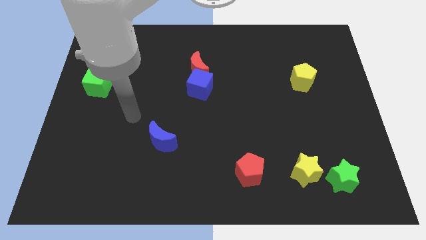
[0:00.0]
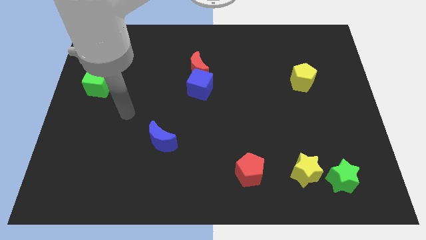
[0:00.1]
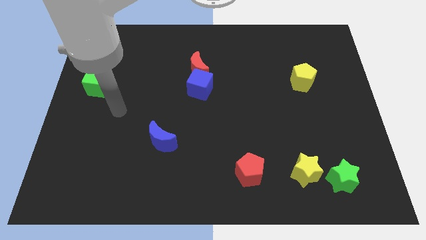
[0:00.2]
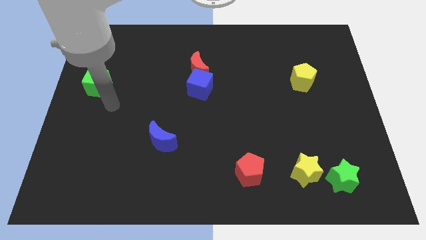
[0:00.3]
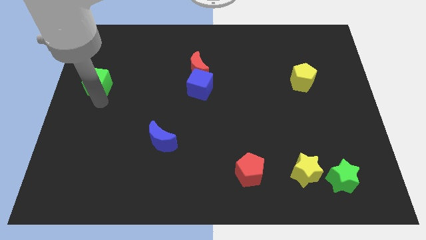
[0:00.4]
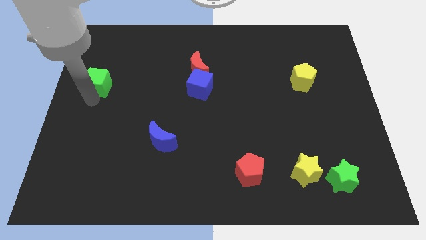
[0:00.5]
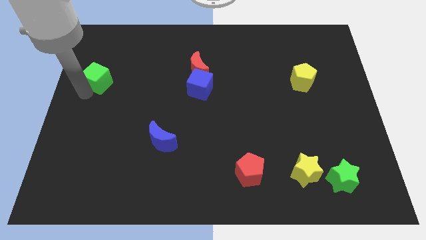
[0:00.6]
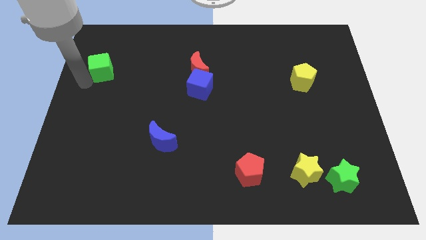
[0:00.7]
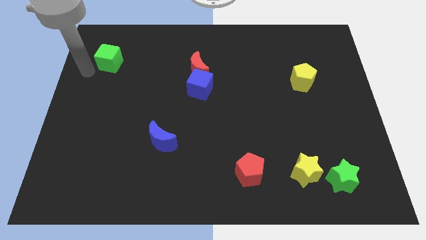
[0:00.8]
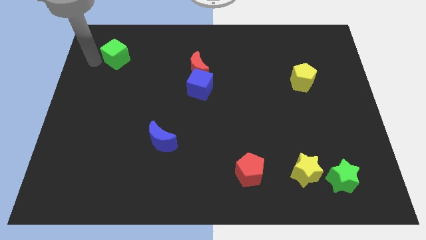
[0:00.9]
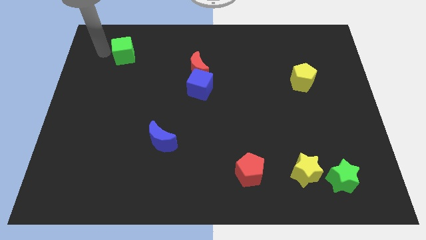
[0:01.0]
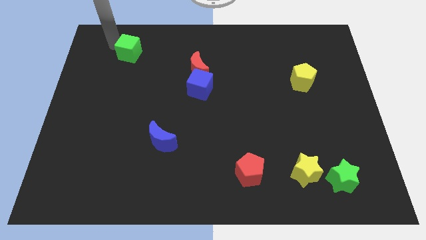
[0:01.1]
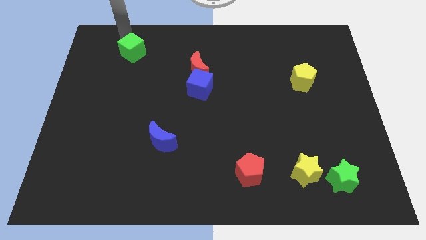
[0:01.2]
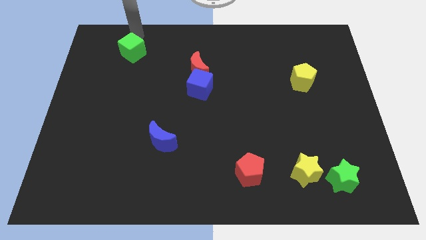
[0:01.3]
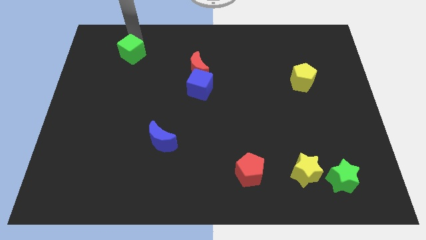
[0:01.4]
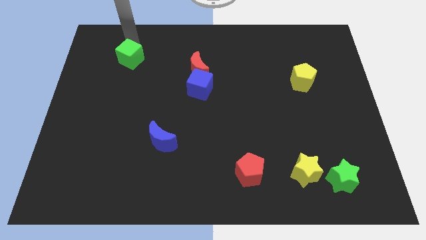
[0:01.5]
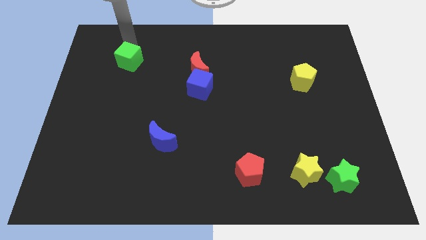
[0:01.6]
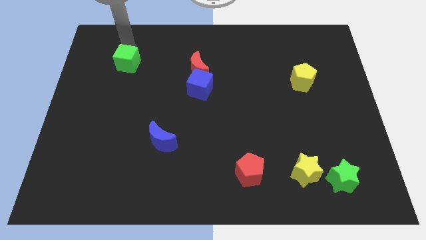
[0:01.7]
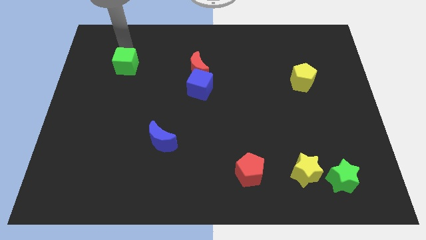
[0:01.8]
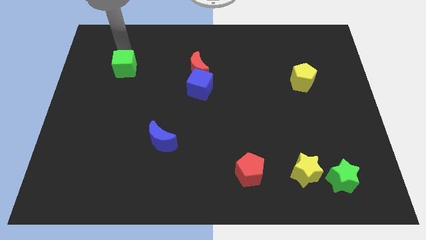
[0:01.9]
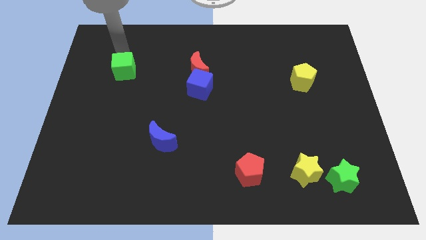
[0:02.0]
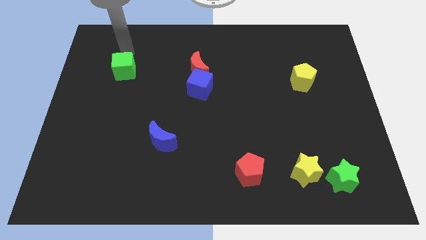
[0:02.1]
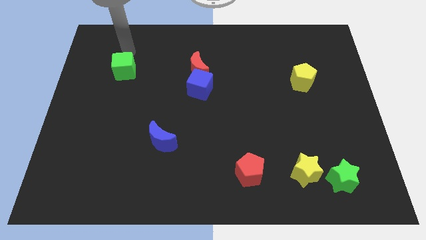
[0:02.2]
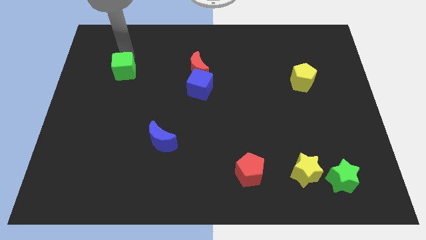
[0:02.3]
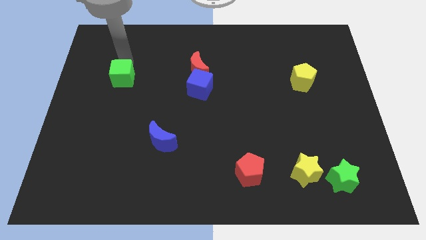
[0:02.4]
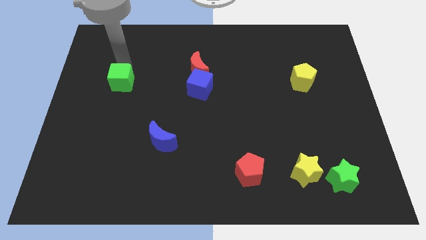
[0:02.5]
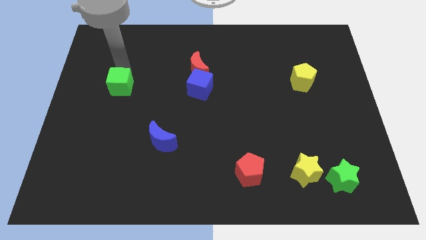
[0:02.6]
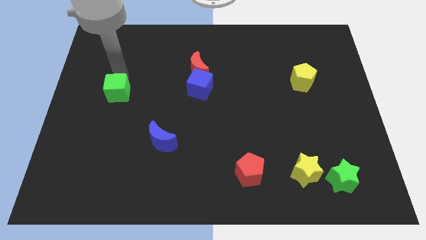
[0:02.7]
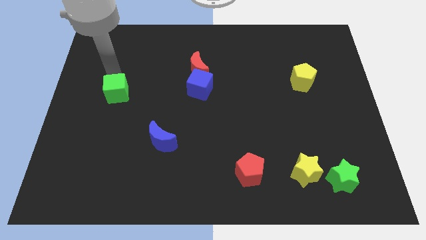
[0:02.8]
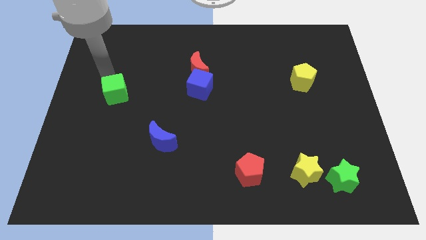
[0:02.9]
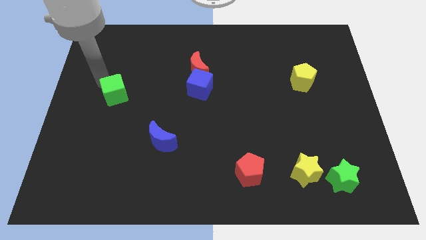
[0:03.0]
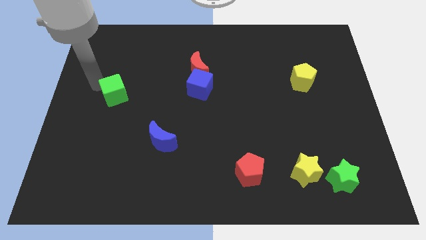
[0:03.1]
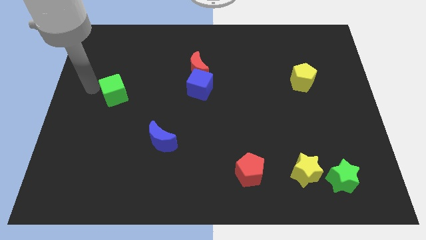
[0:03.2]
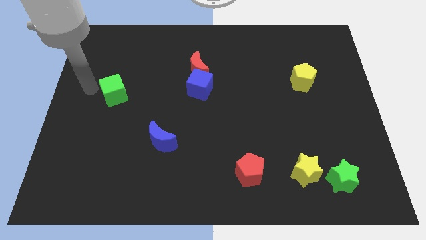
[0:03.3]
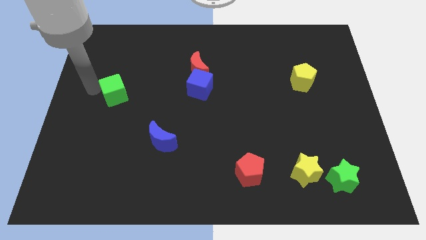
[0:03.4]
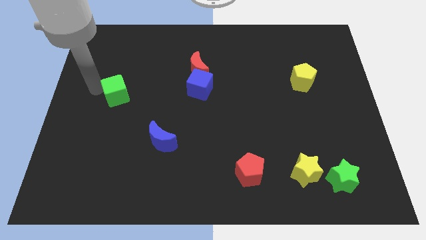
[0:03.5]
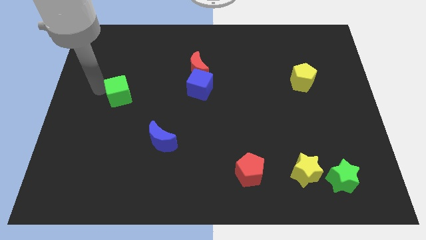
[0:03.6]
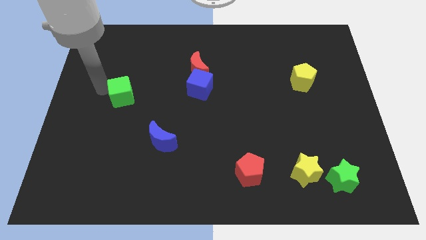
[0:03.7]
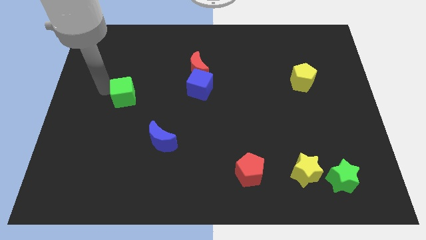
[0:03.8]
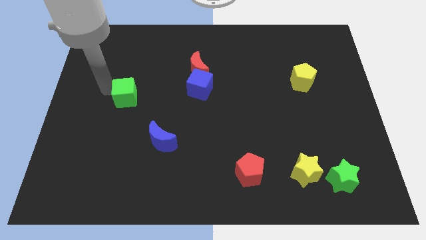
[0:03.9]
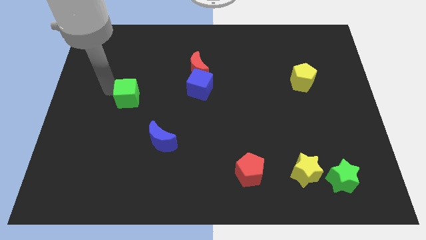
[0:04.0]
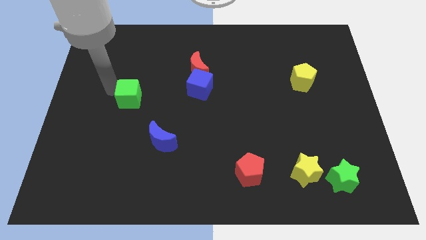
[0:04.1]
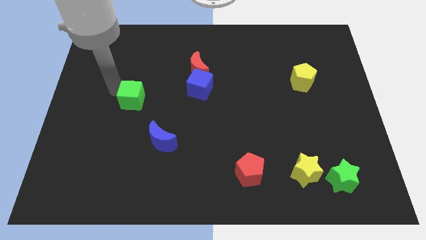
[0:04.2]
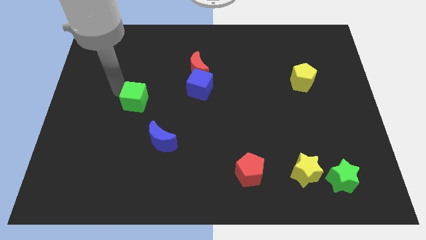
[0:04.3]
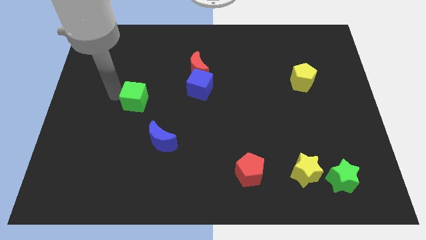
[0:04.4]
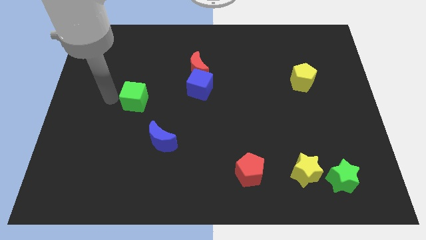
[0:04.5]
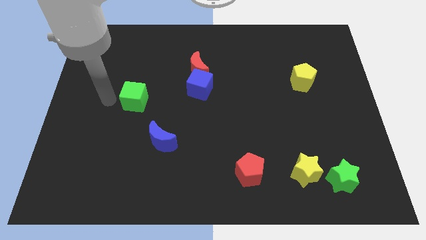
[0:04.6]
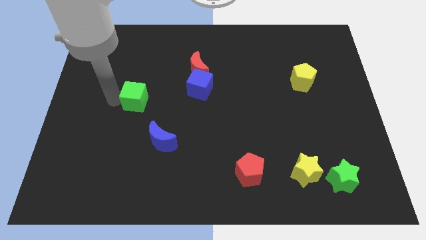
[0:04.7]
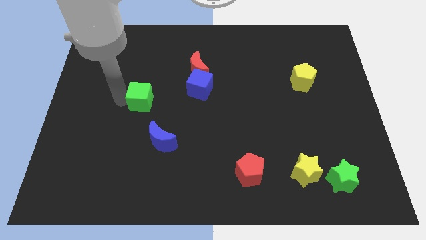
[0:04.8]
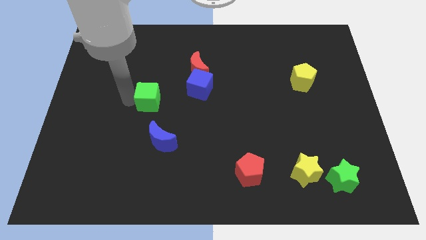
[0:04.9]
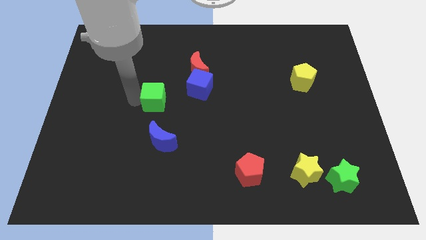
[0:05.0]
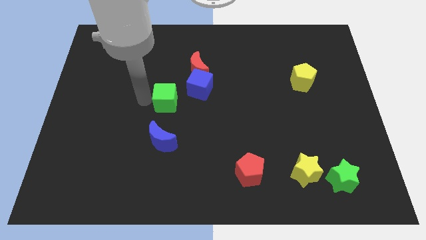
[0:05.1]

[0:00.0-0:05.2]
move the green cube to the center of the board

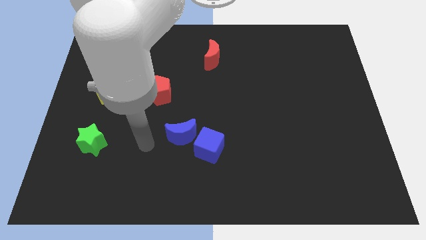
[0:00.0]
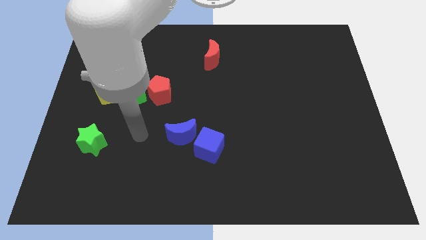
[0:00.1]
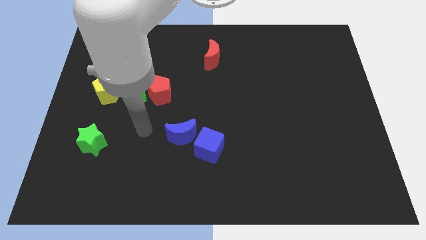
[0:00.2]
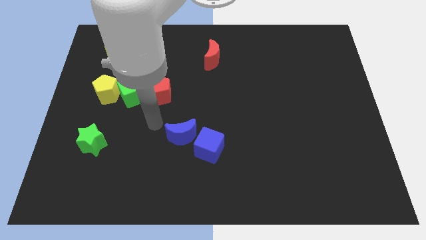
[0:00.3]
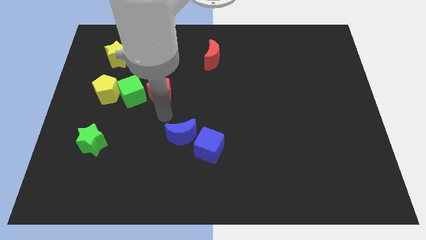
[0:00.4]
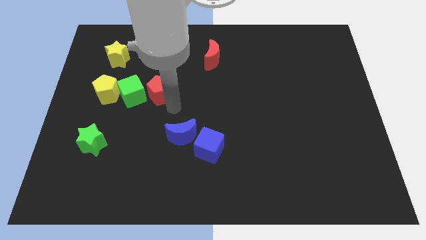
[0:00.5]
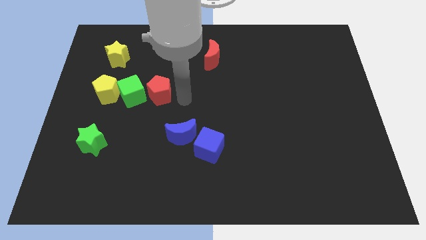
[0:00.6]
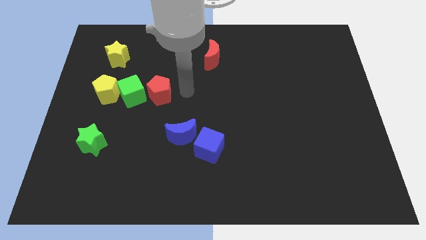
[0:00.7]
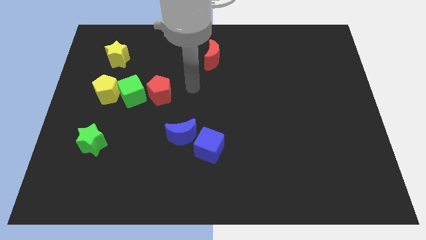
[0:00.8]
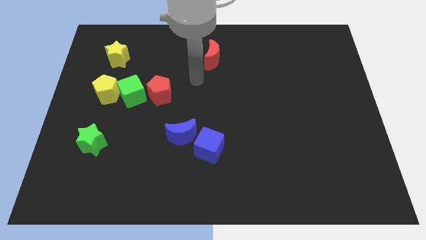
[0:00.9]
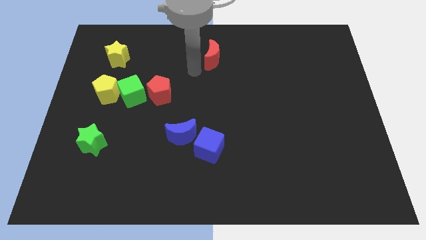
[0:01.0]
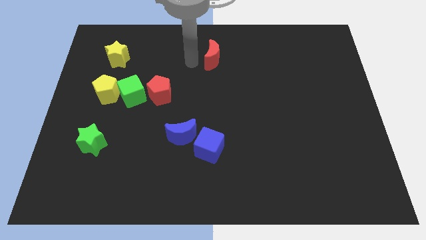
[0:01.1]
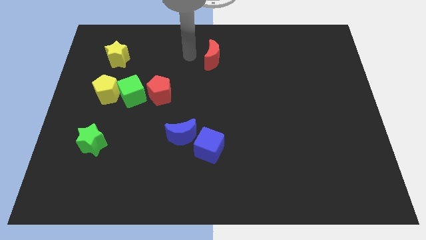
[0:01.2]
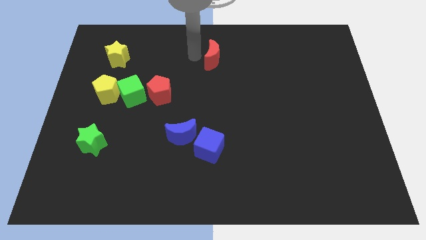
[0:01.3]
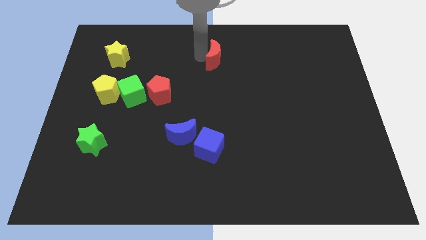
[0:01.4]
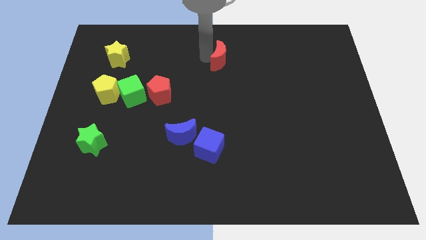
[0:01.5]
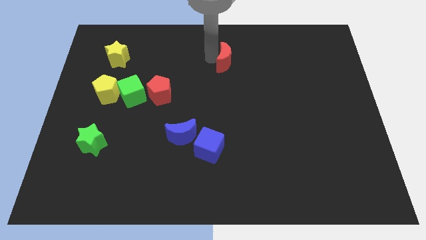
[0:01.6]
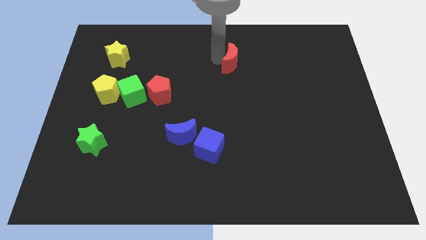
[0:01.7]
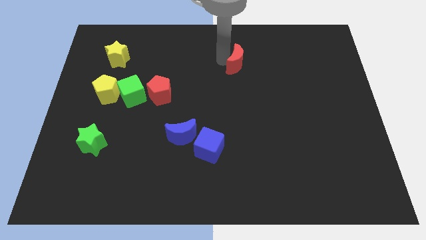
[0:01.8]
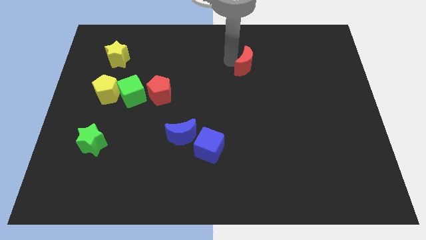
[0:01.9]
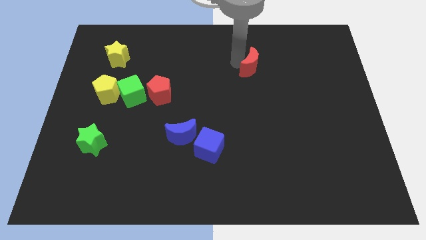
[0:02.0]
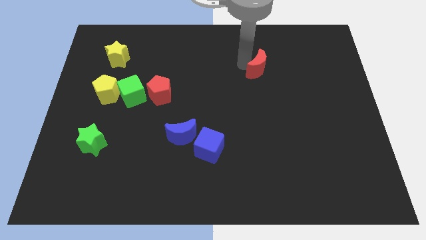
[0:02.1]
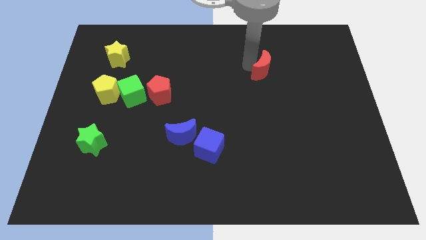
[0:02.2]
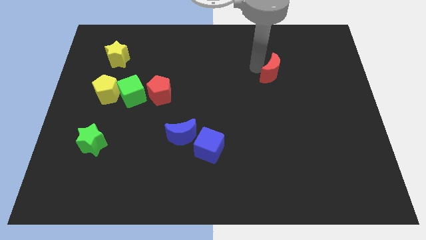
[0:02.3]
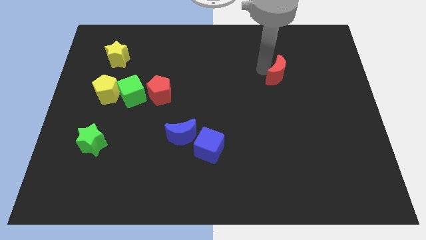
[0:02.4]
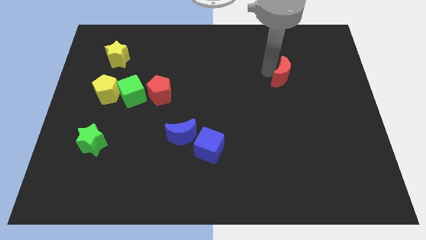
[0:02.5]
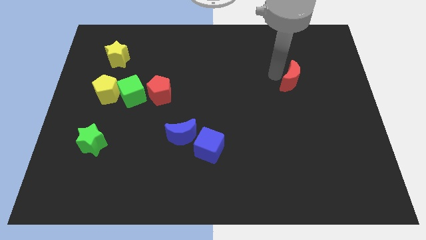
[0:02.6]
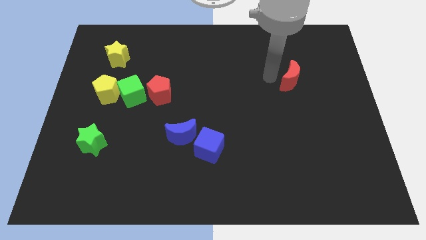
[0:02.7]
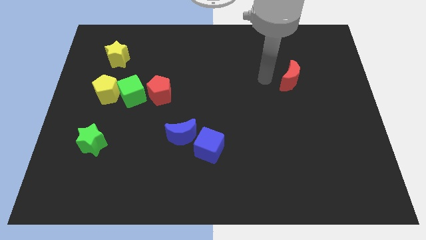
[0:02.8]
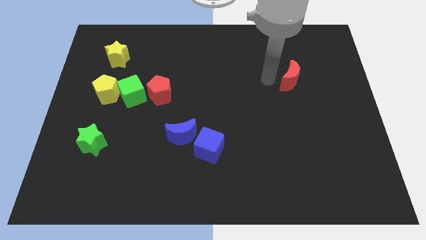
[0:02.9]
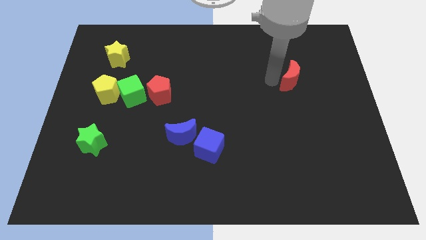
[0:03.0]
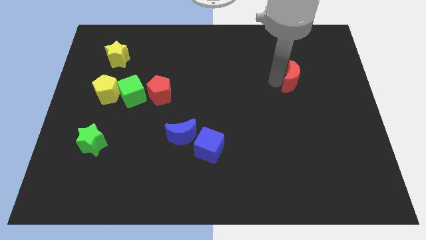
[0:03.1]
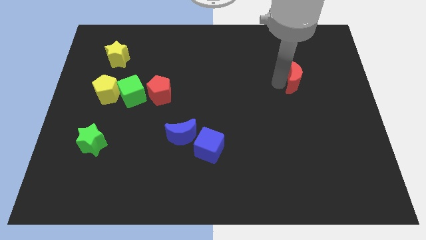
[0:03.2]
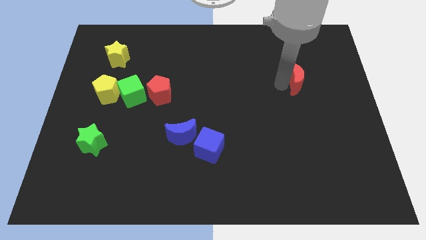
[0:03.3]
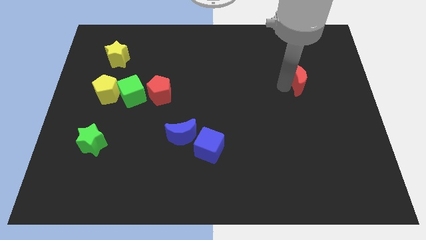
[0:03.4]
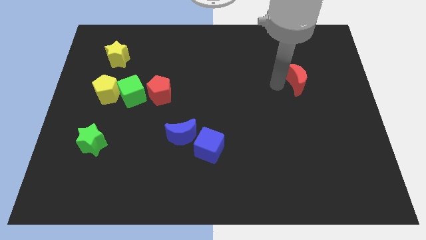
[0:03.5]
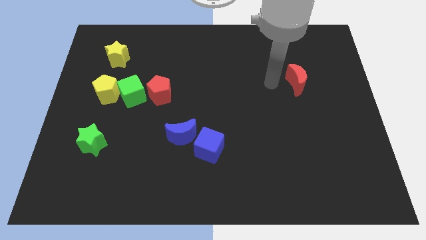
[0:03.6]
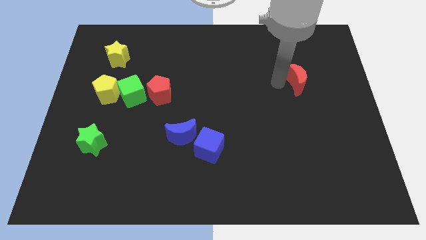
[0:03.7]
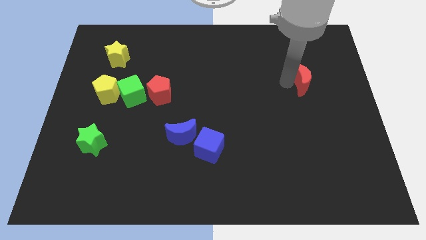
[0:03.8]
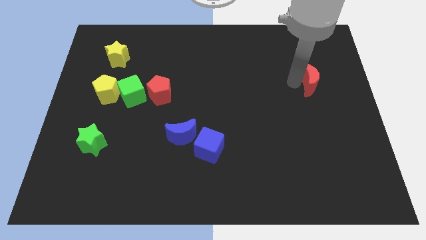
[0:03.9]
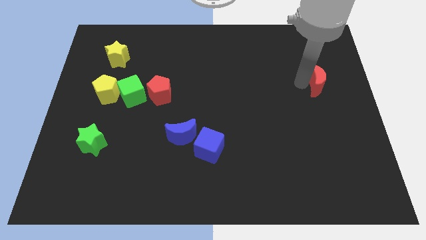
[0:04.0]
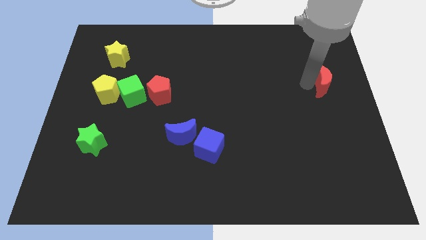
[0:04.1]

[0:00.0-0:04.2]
slide the red moon to the center right
